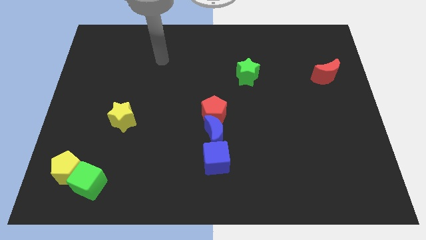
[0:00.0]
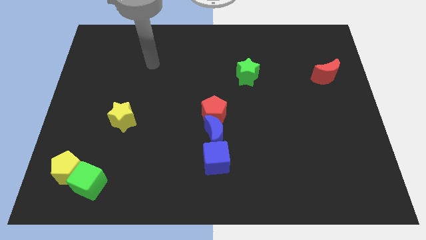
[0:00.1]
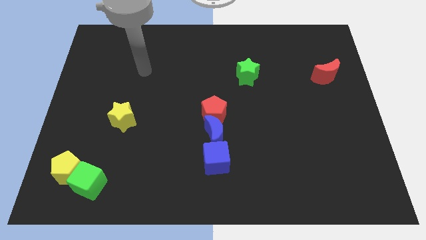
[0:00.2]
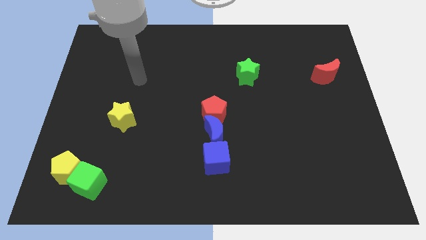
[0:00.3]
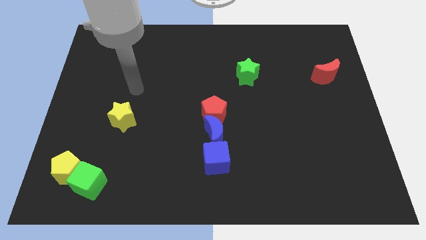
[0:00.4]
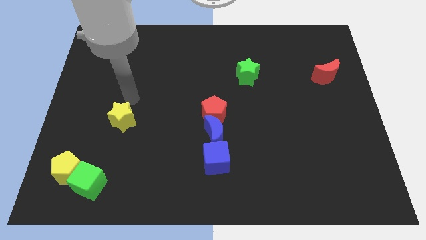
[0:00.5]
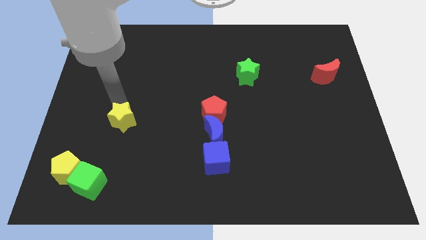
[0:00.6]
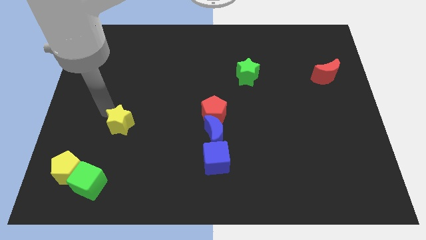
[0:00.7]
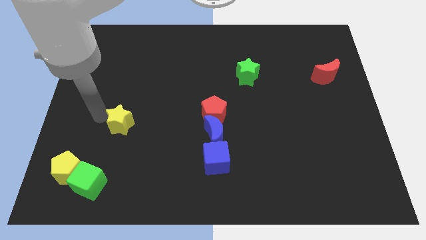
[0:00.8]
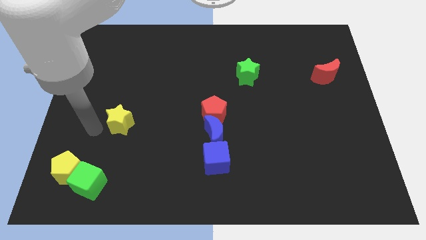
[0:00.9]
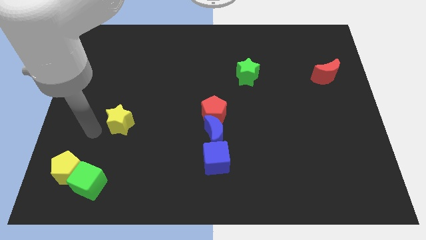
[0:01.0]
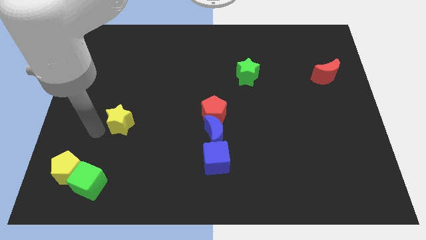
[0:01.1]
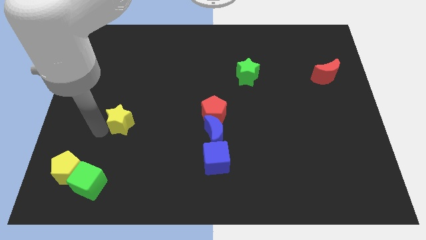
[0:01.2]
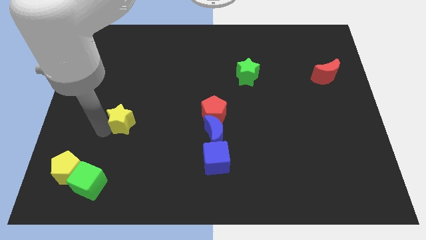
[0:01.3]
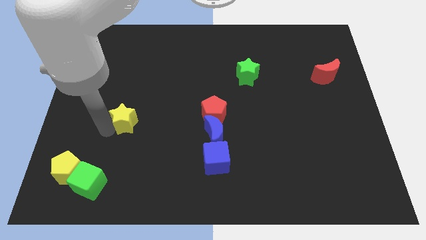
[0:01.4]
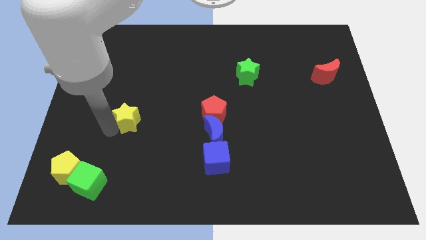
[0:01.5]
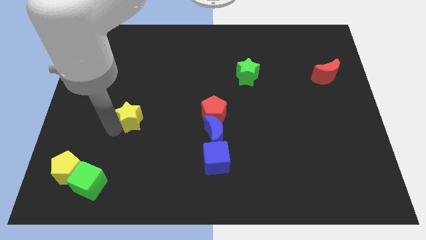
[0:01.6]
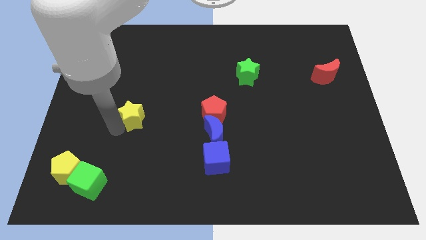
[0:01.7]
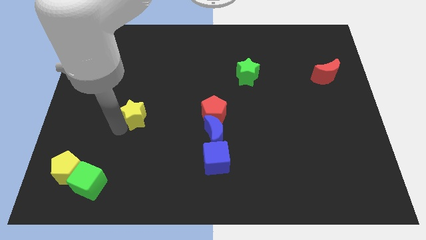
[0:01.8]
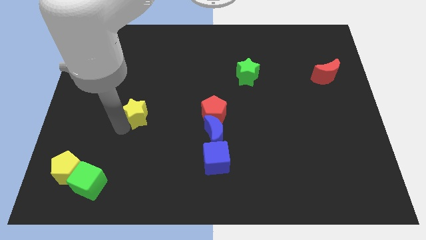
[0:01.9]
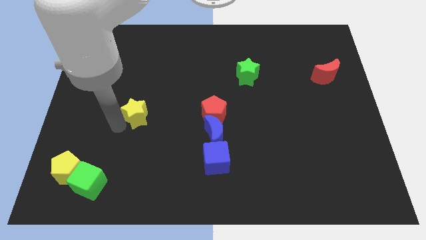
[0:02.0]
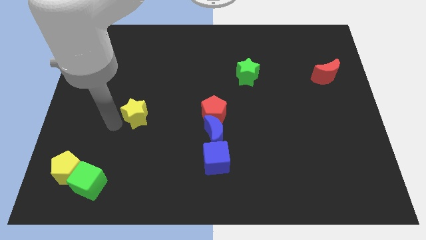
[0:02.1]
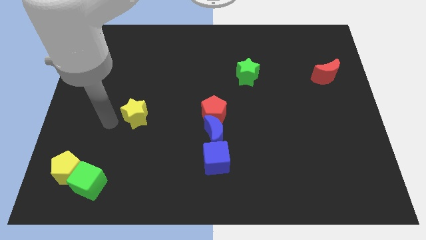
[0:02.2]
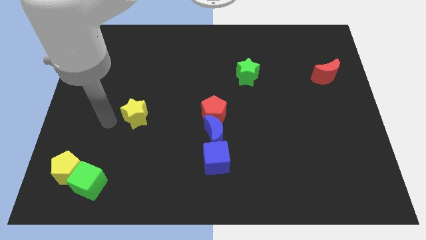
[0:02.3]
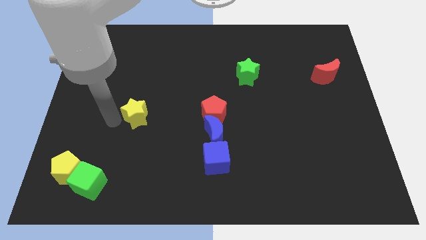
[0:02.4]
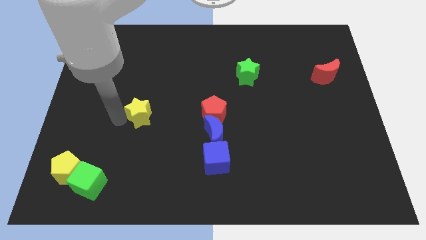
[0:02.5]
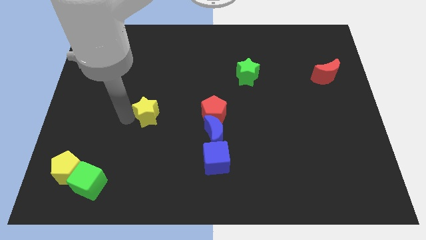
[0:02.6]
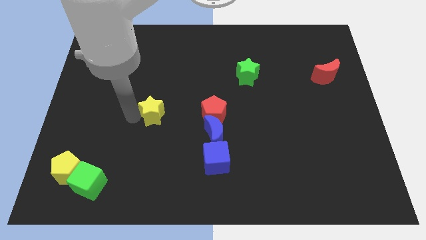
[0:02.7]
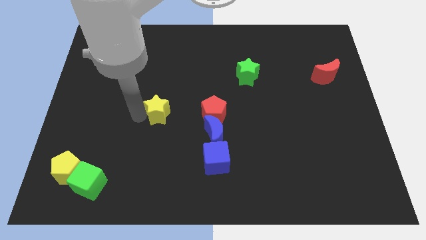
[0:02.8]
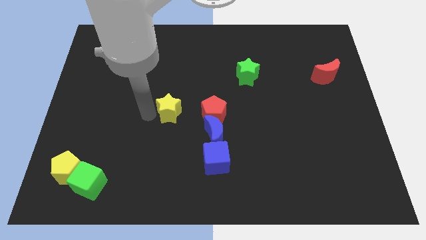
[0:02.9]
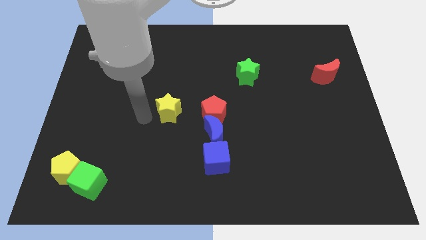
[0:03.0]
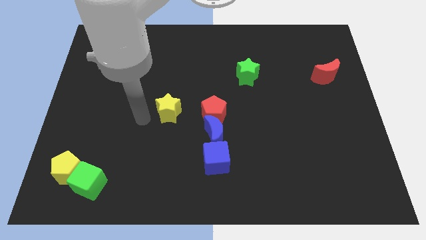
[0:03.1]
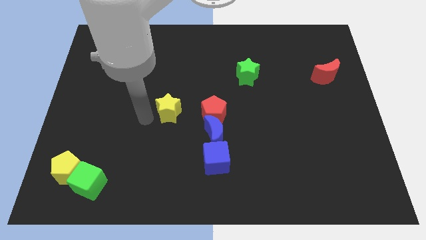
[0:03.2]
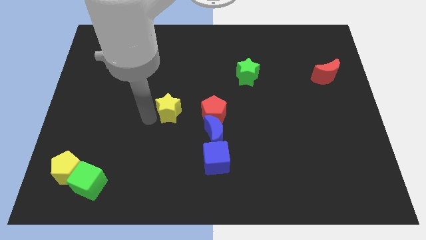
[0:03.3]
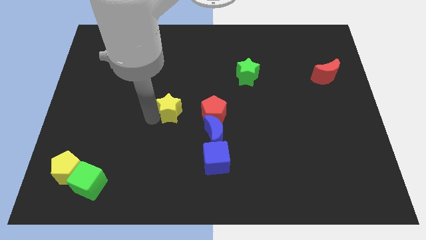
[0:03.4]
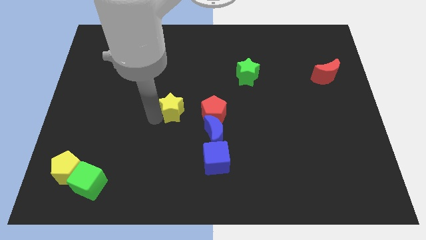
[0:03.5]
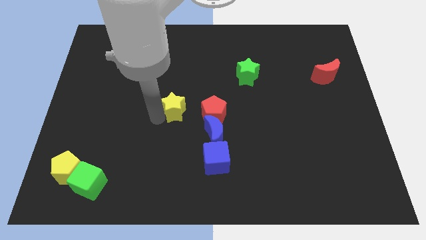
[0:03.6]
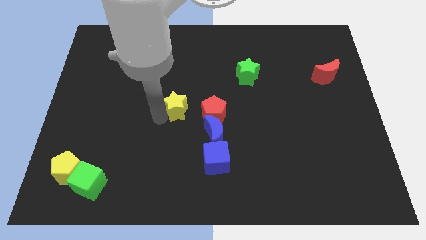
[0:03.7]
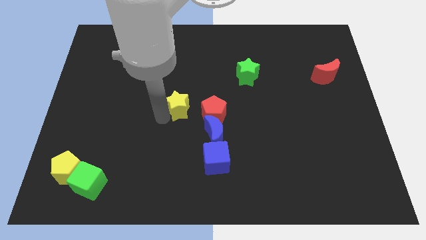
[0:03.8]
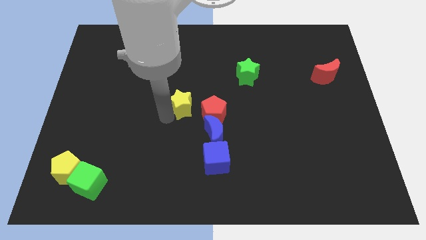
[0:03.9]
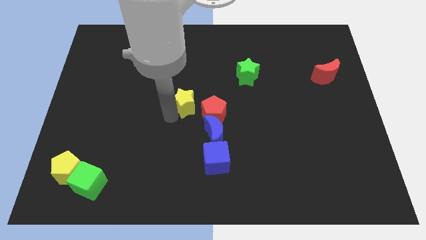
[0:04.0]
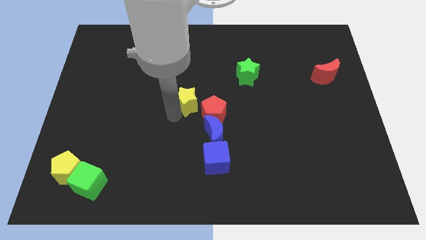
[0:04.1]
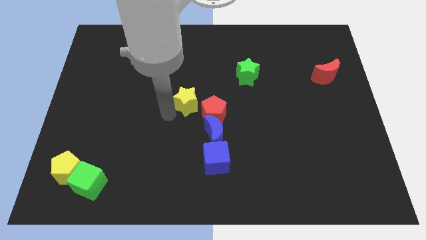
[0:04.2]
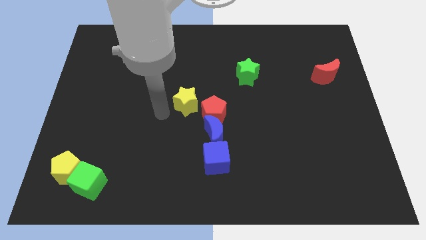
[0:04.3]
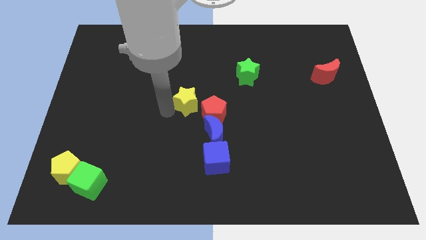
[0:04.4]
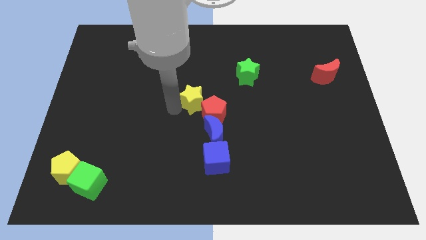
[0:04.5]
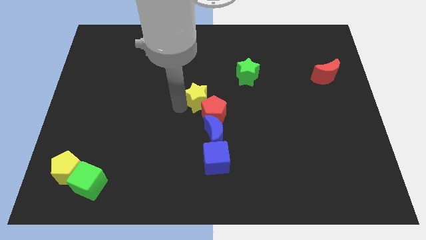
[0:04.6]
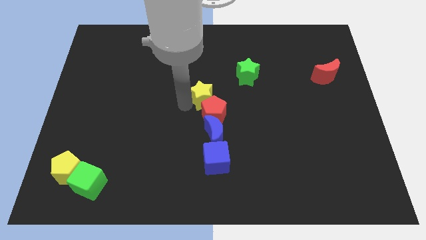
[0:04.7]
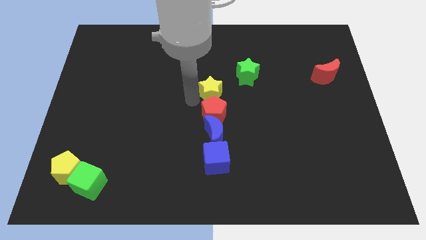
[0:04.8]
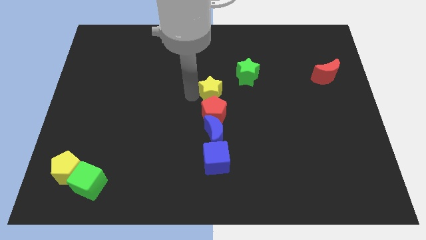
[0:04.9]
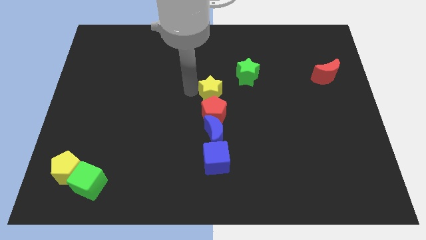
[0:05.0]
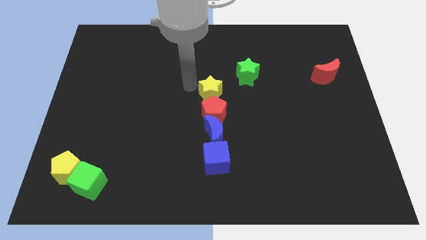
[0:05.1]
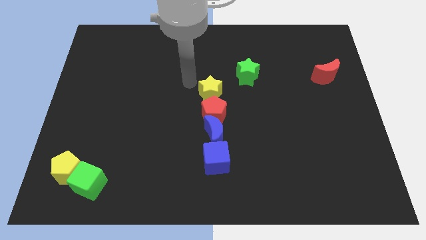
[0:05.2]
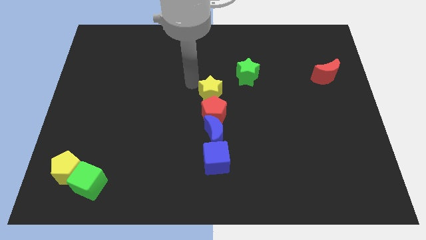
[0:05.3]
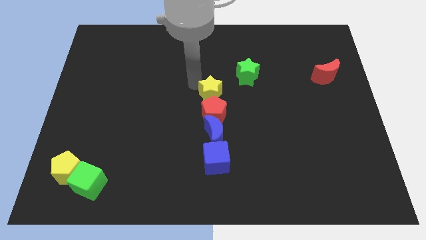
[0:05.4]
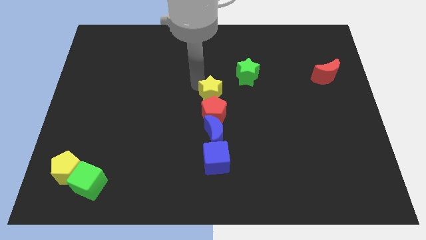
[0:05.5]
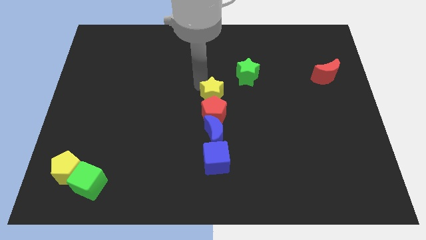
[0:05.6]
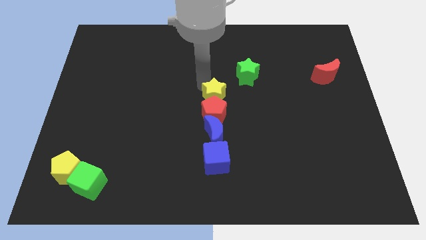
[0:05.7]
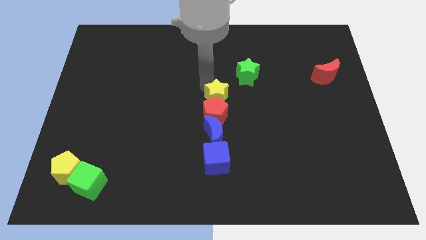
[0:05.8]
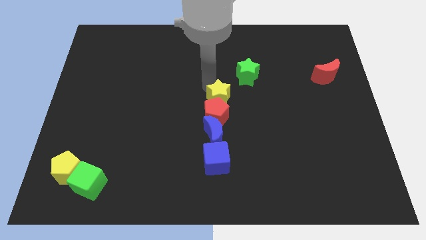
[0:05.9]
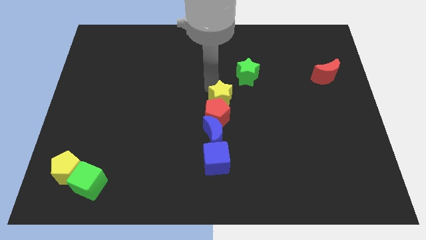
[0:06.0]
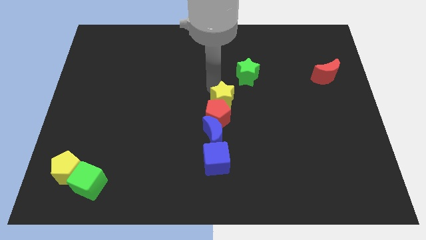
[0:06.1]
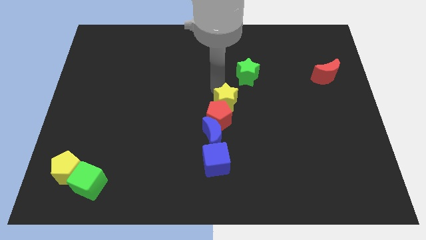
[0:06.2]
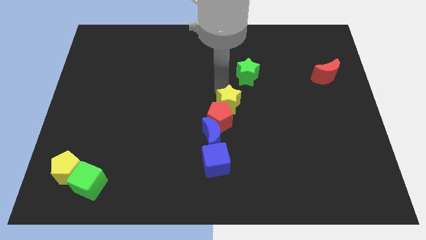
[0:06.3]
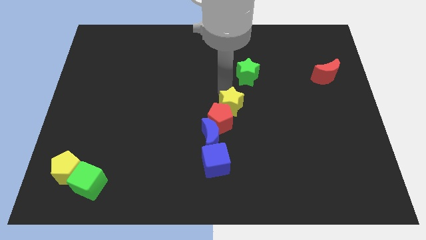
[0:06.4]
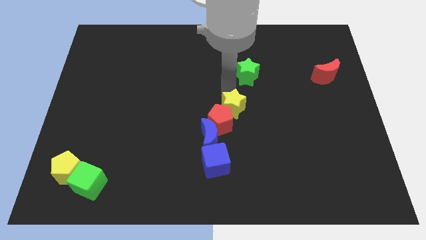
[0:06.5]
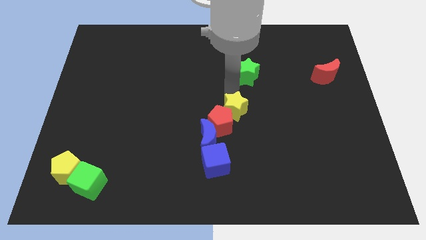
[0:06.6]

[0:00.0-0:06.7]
move the yellow star just right of the red pentagon

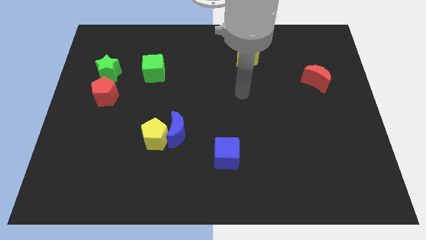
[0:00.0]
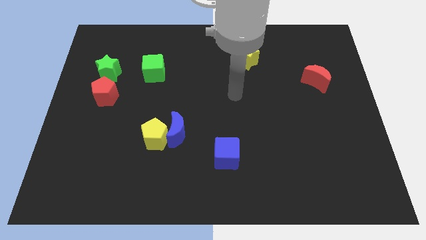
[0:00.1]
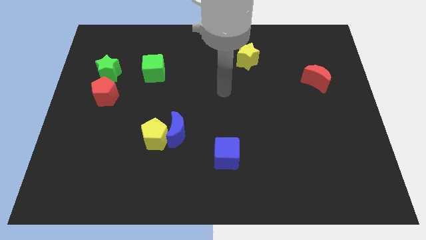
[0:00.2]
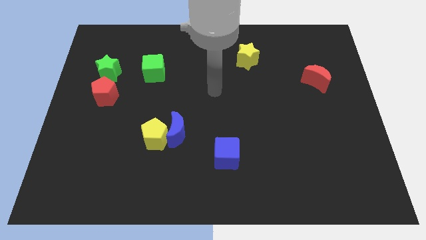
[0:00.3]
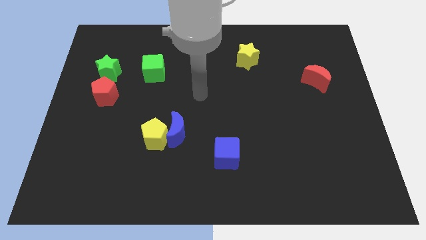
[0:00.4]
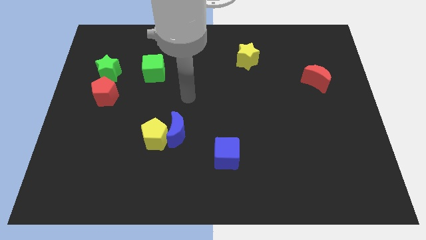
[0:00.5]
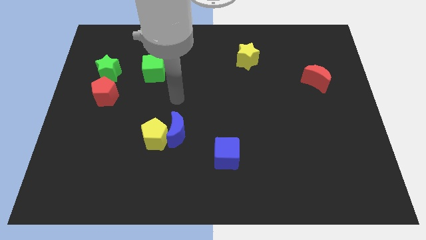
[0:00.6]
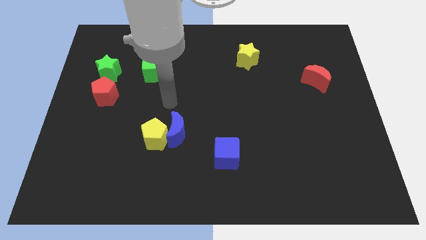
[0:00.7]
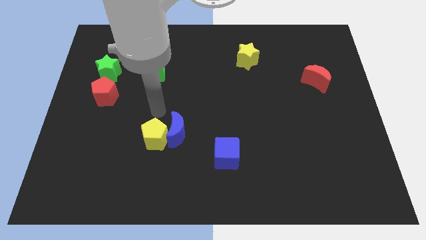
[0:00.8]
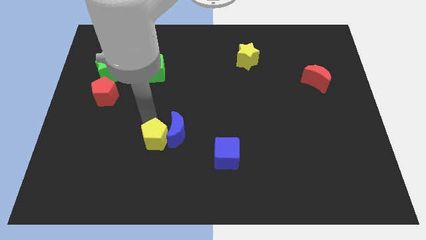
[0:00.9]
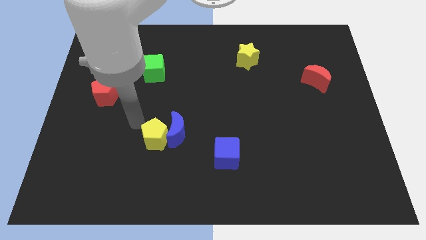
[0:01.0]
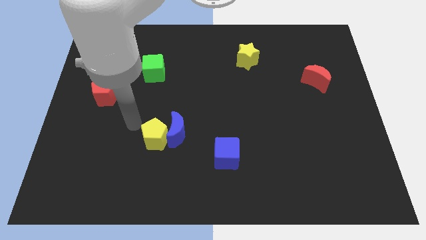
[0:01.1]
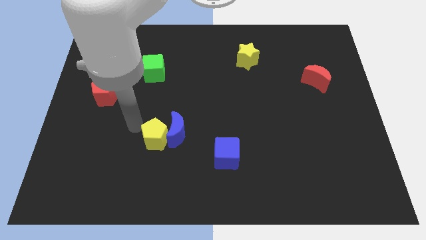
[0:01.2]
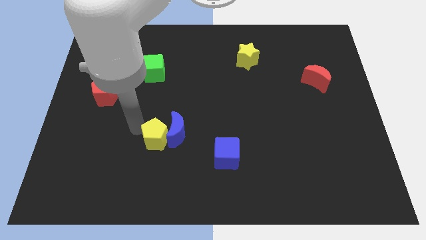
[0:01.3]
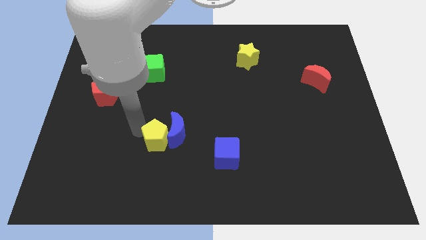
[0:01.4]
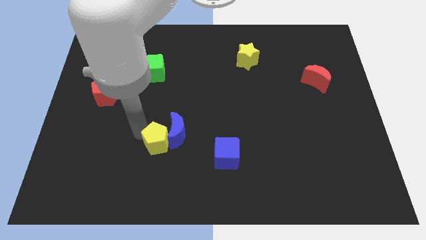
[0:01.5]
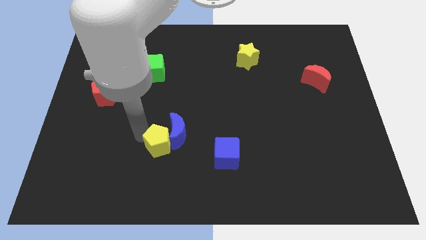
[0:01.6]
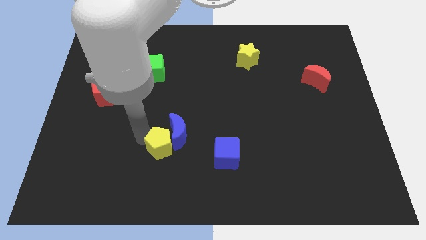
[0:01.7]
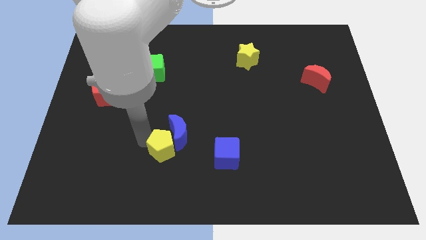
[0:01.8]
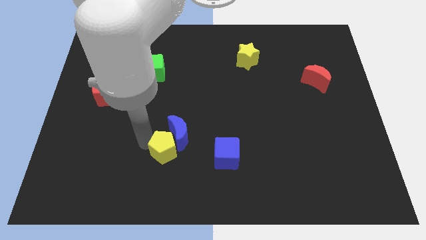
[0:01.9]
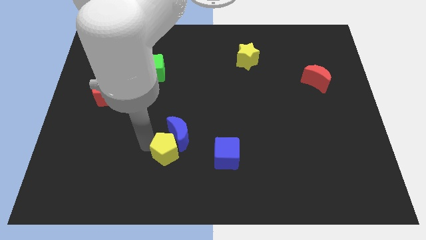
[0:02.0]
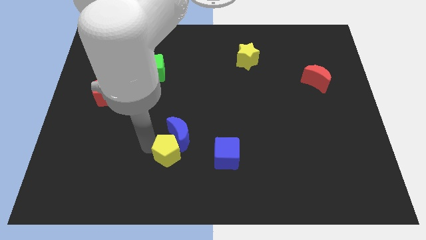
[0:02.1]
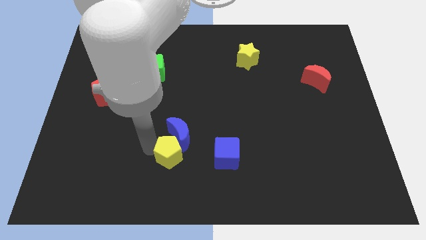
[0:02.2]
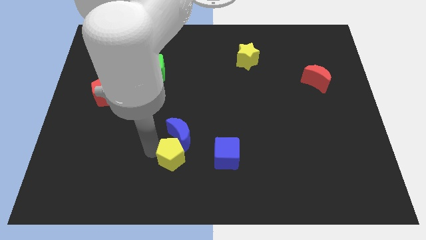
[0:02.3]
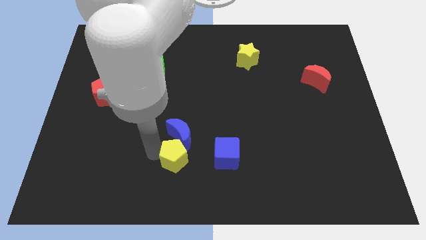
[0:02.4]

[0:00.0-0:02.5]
slide the yellow pentagon to the bottom right side of the blue moon
